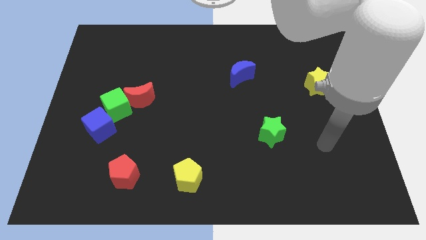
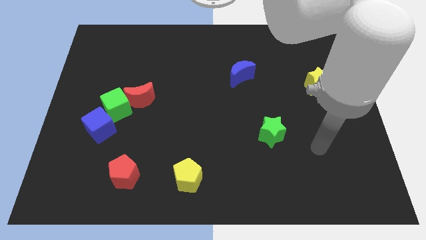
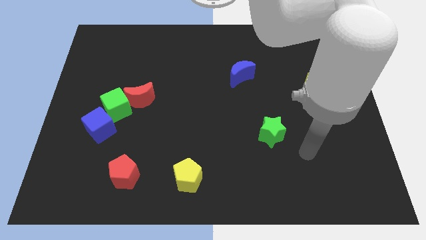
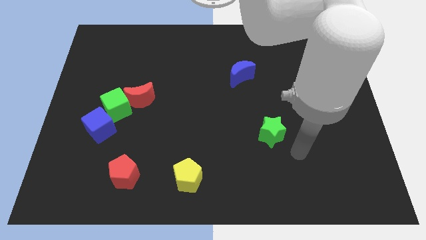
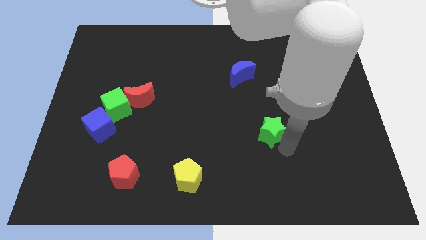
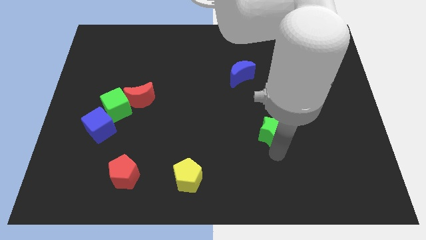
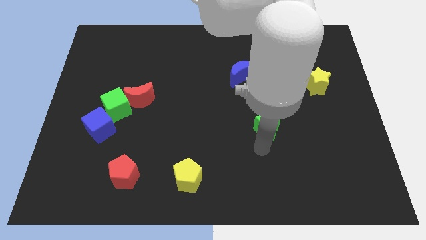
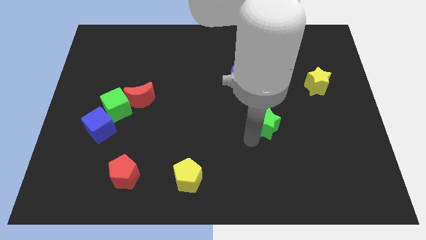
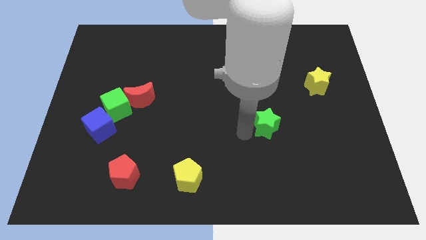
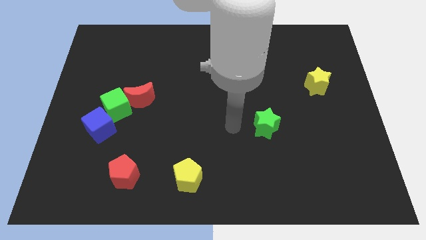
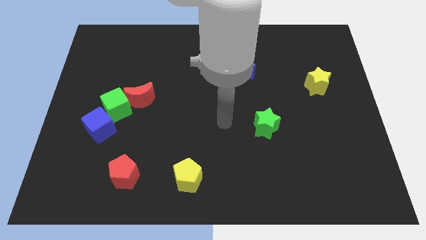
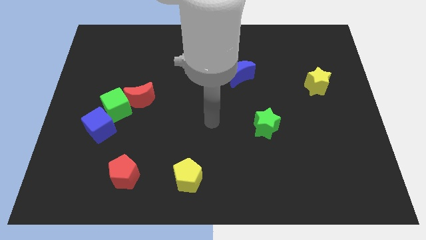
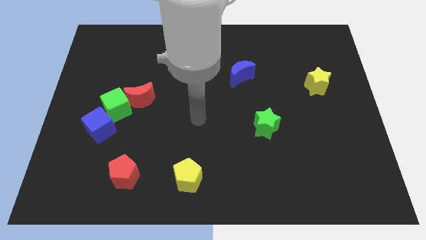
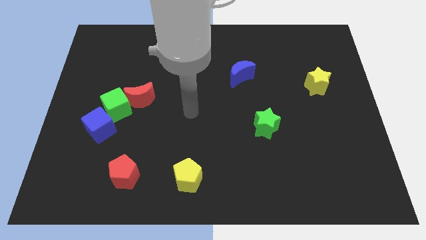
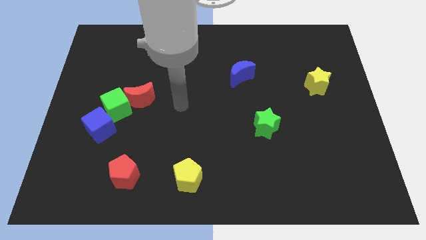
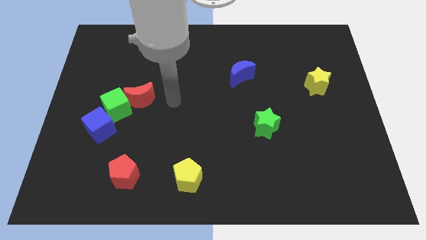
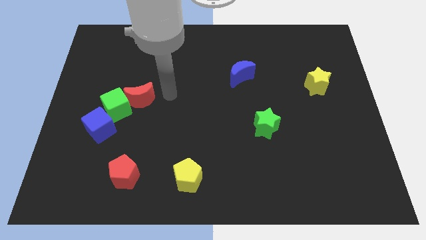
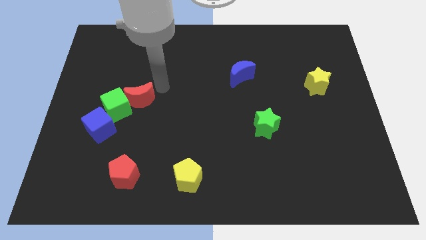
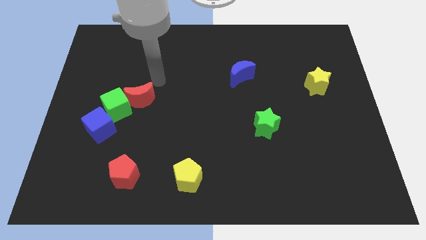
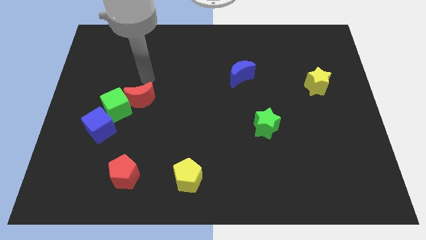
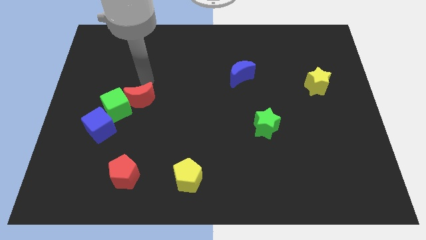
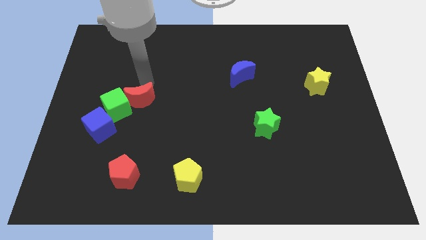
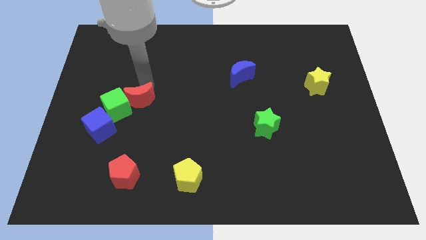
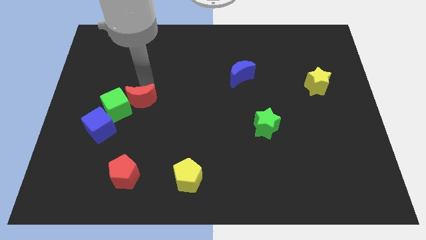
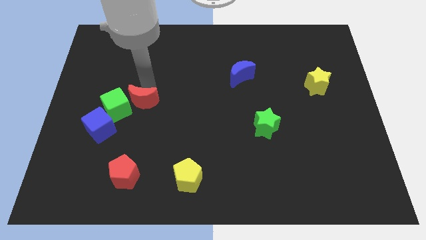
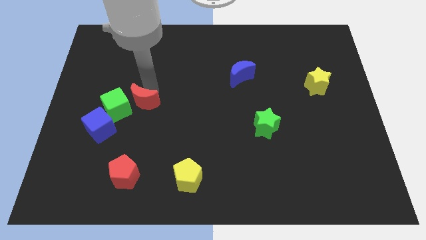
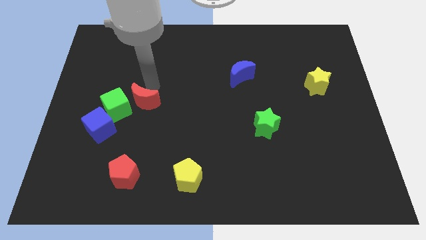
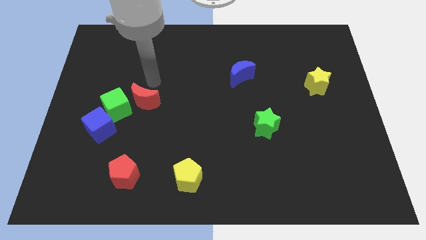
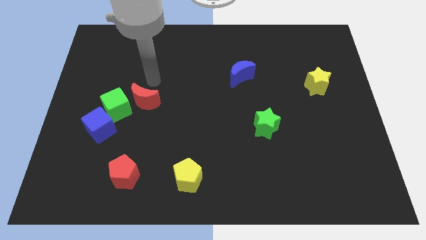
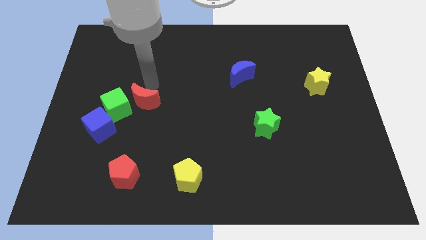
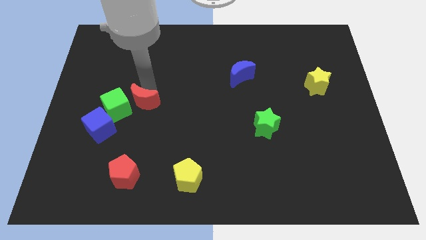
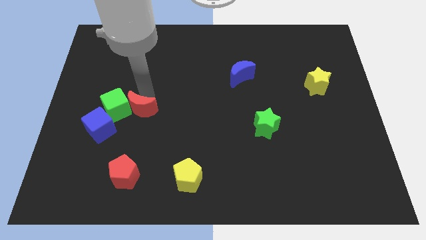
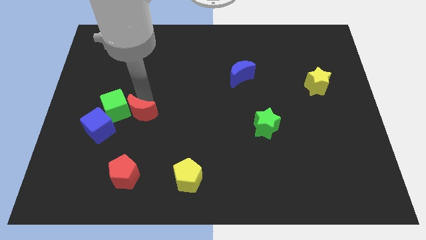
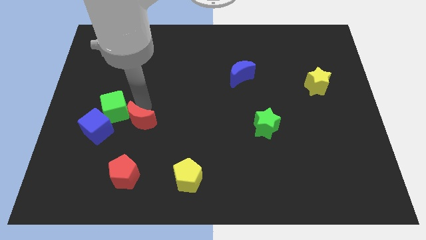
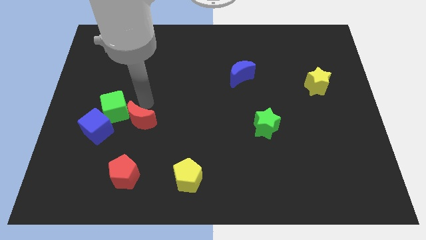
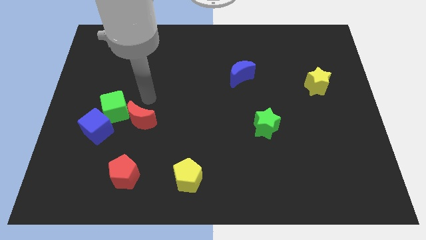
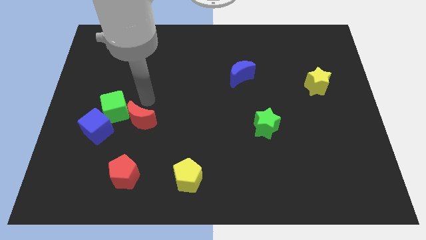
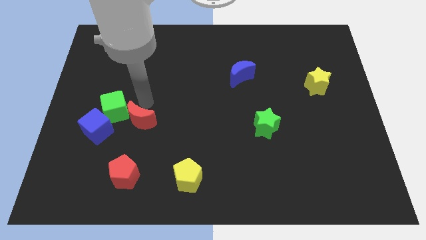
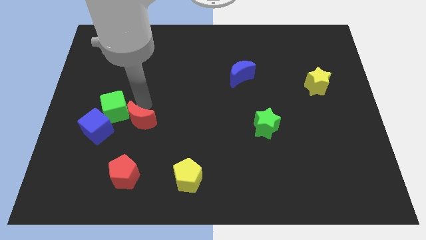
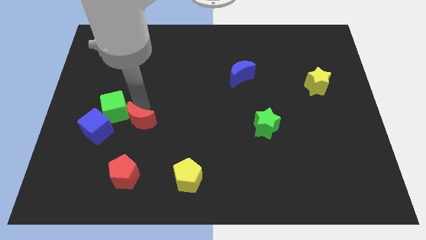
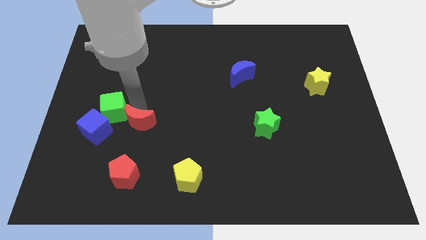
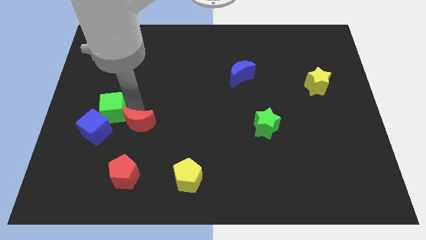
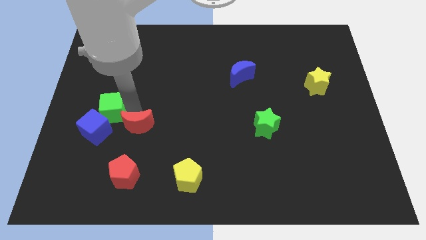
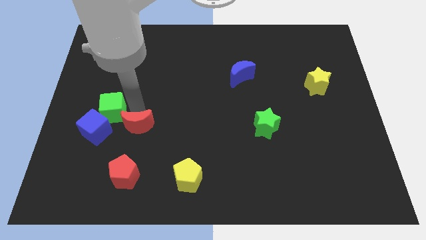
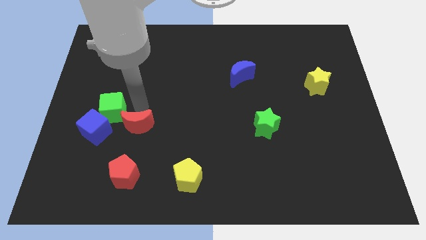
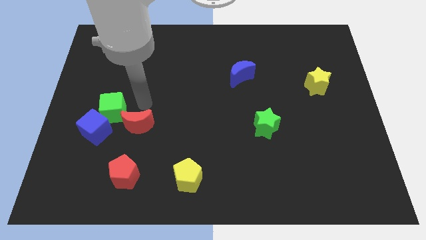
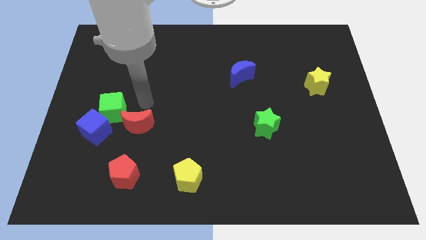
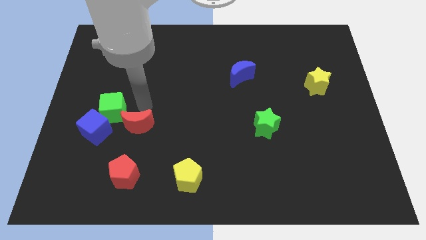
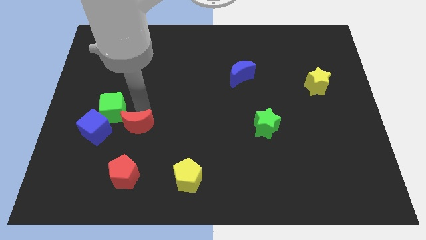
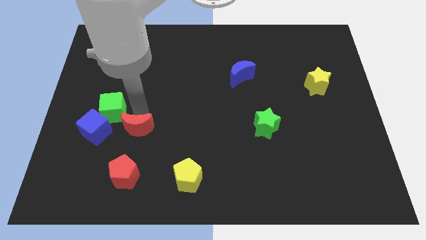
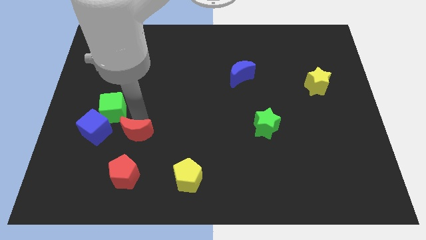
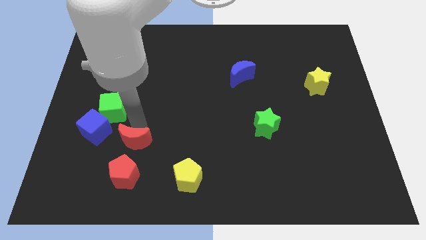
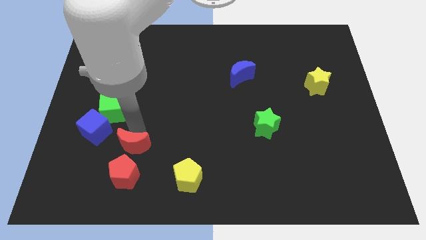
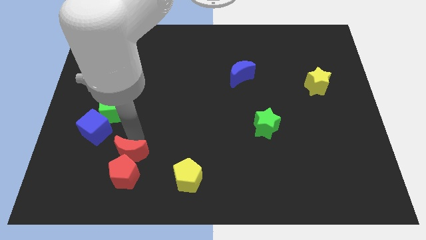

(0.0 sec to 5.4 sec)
push the red moon towards the red pentagon

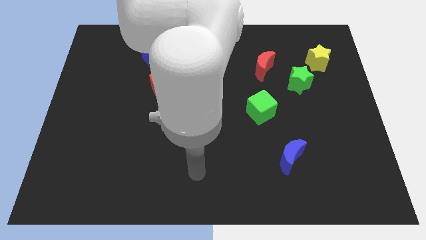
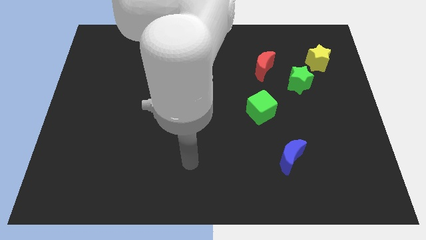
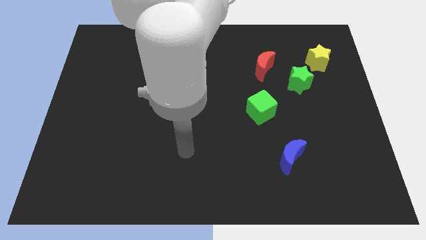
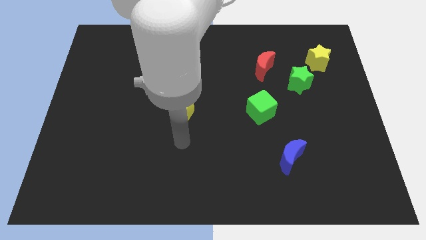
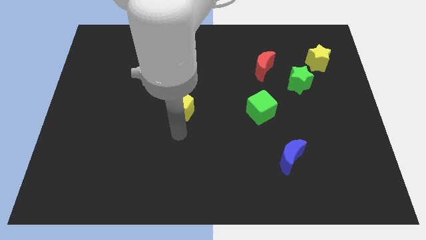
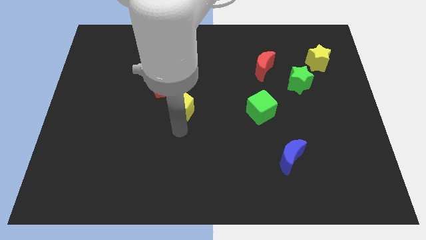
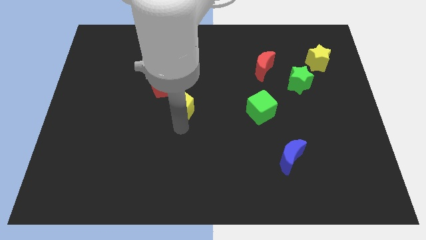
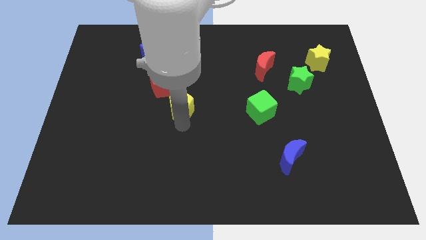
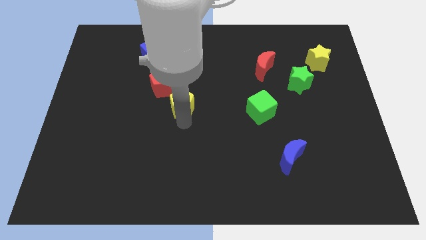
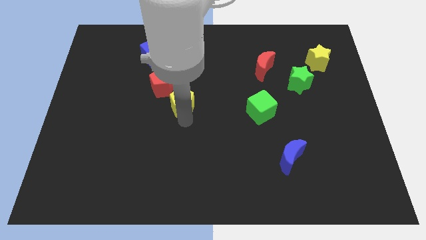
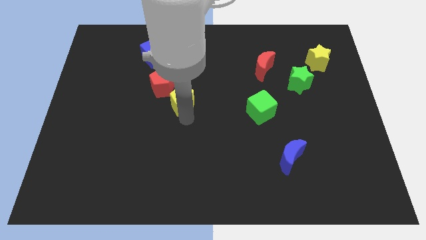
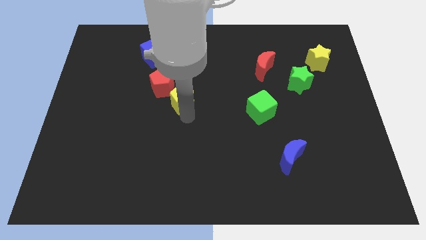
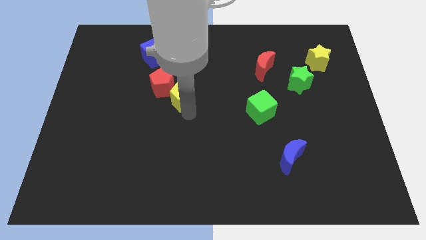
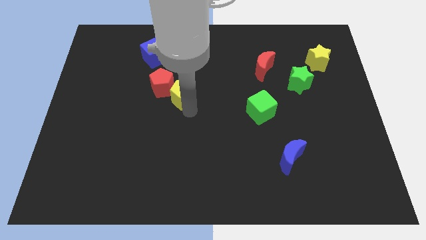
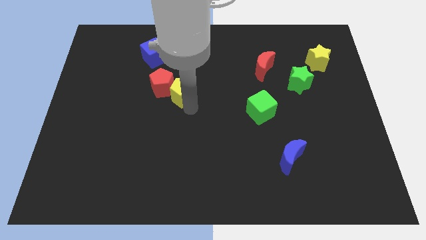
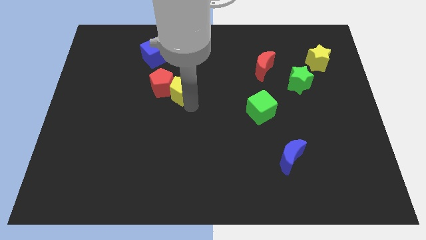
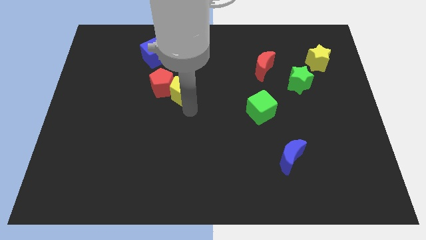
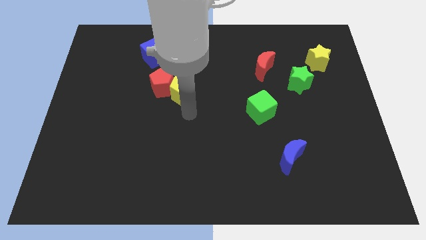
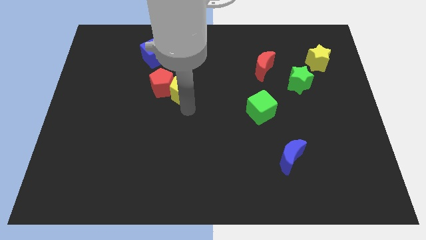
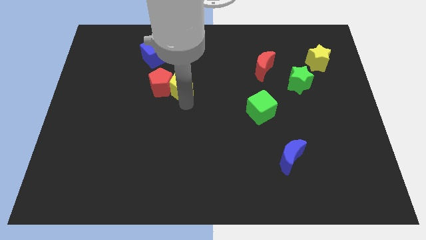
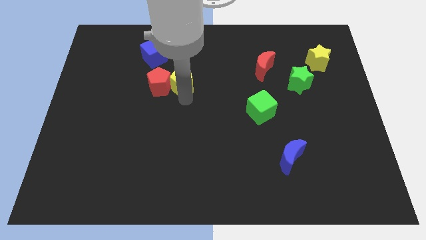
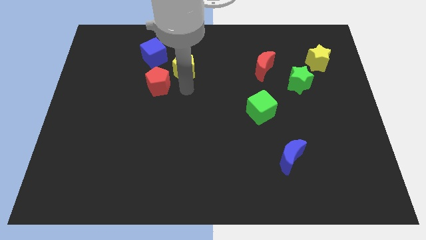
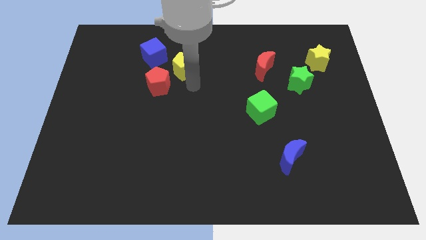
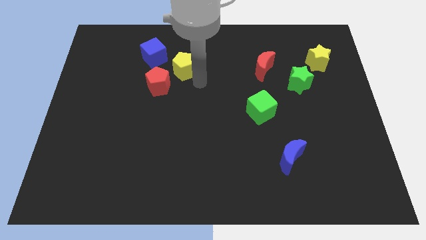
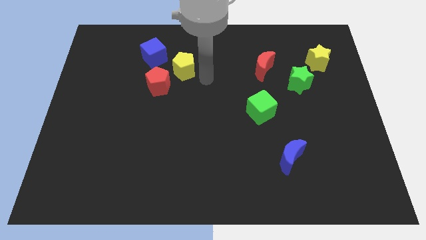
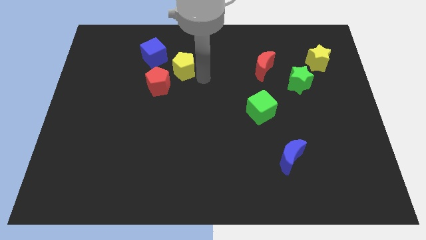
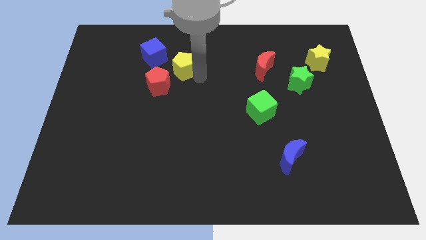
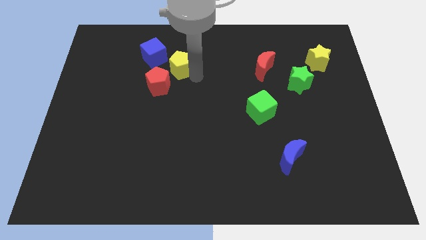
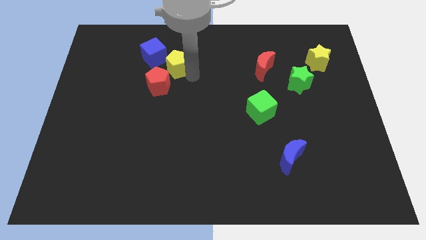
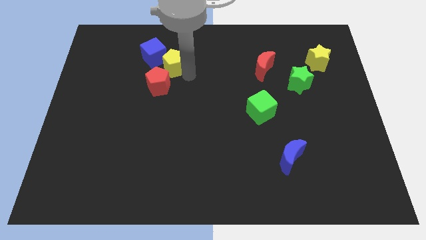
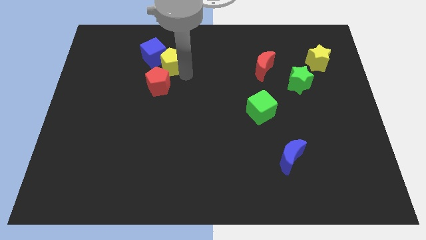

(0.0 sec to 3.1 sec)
slide the yellow pentagon towards the blue cube
